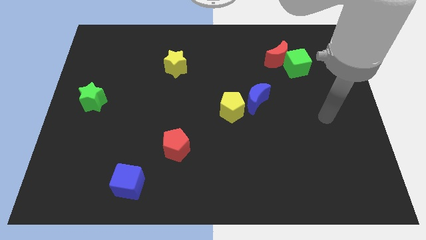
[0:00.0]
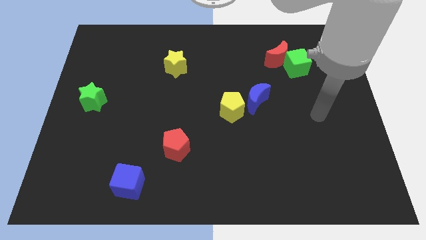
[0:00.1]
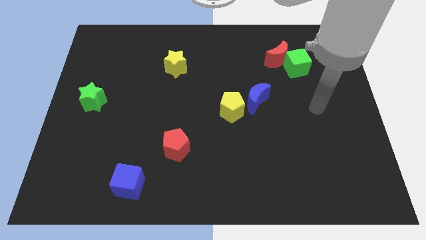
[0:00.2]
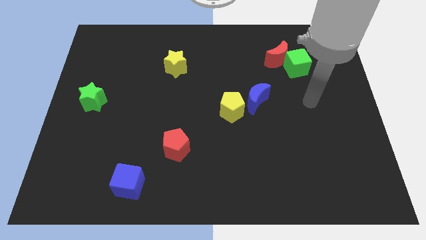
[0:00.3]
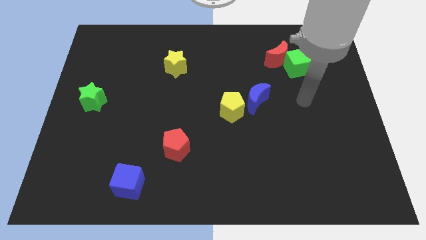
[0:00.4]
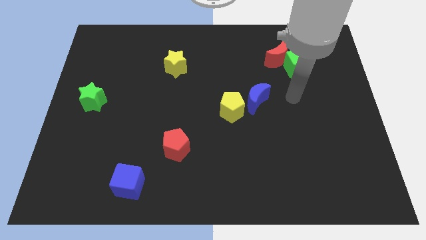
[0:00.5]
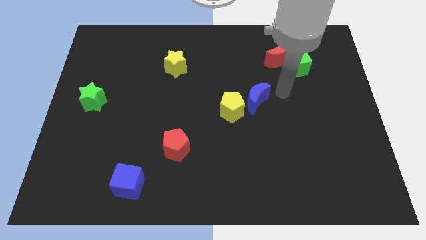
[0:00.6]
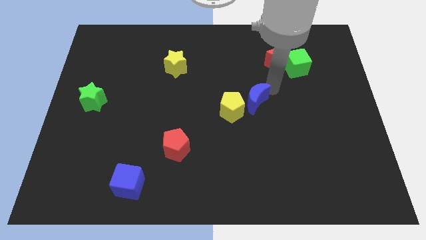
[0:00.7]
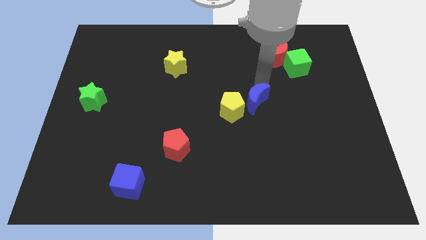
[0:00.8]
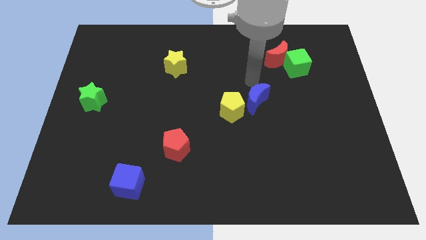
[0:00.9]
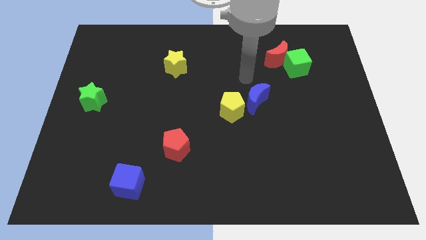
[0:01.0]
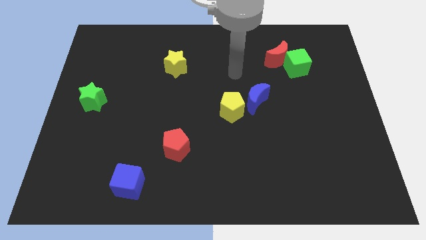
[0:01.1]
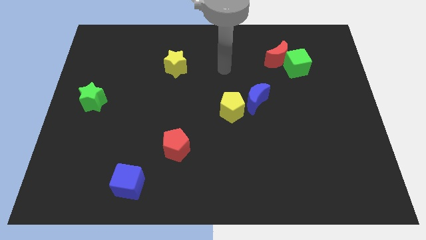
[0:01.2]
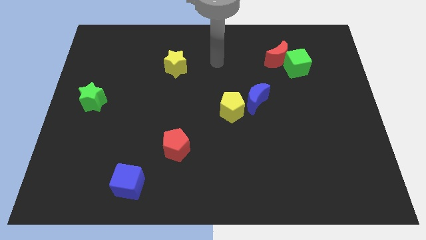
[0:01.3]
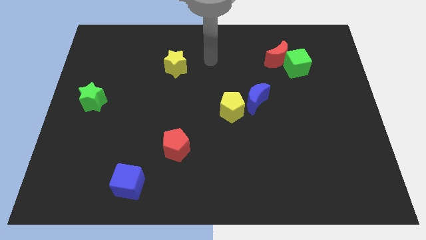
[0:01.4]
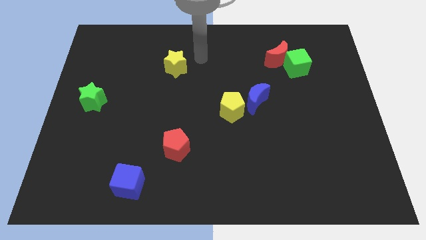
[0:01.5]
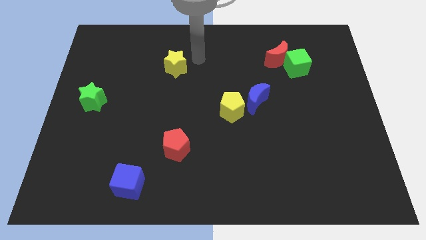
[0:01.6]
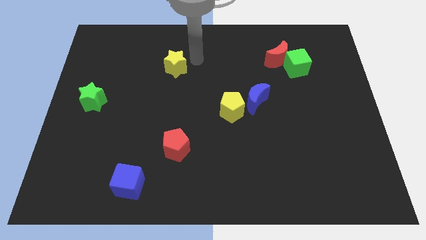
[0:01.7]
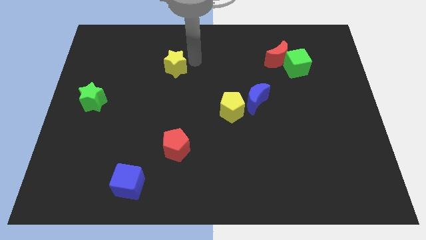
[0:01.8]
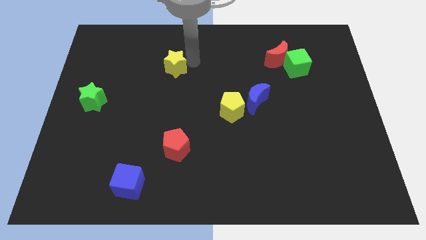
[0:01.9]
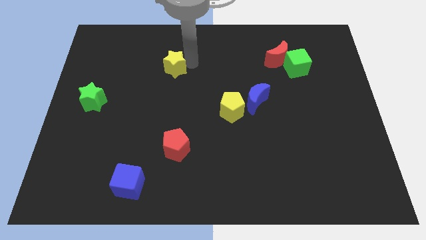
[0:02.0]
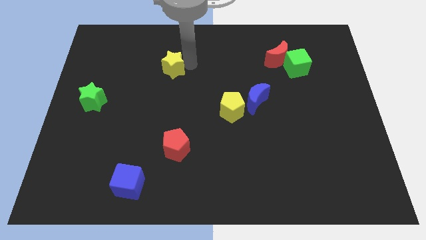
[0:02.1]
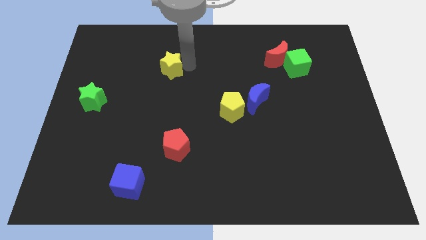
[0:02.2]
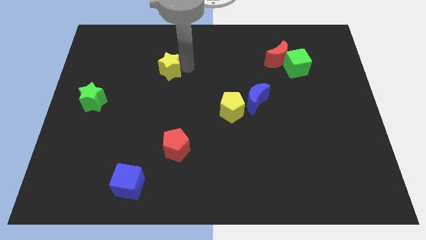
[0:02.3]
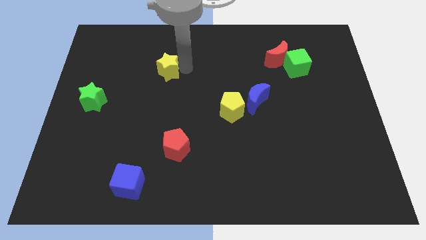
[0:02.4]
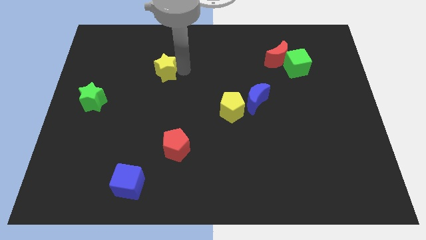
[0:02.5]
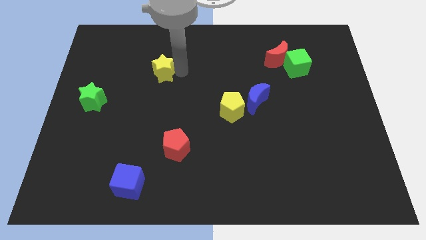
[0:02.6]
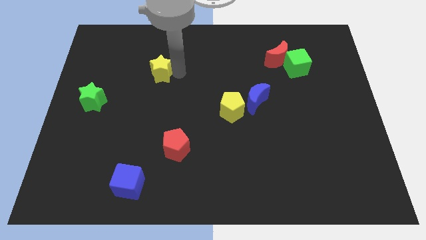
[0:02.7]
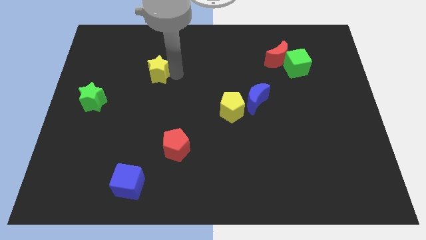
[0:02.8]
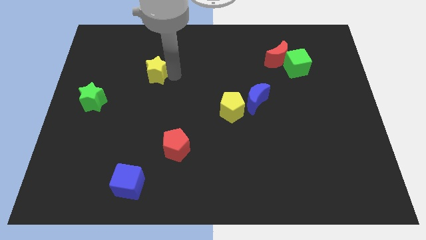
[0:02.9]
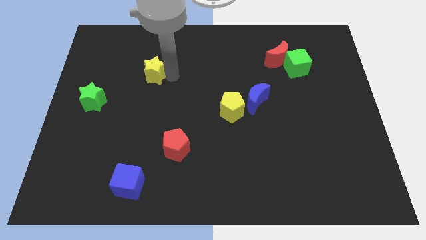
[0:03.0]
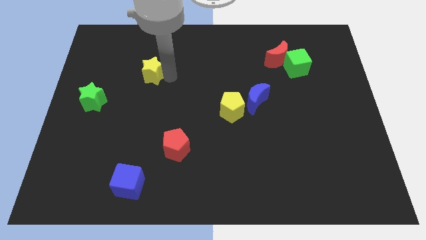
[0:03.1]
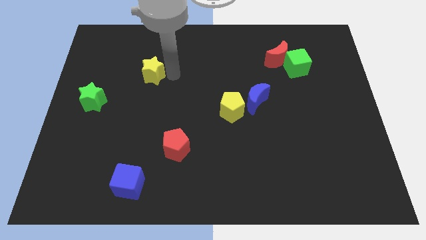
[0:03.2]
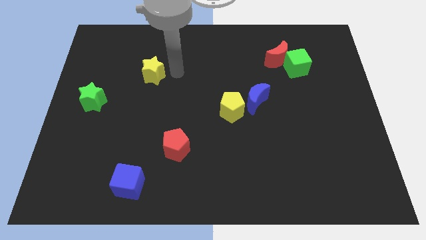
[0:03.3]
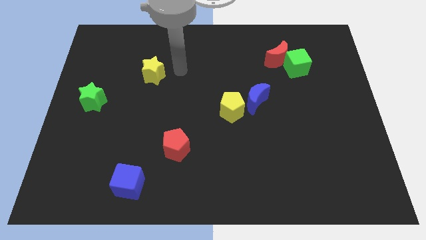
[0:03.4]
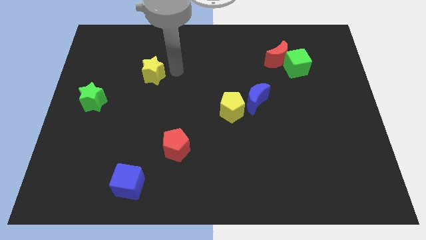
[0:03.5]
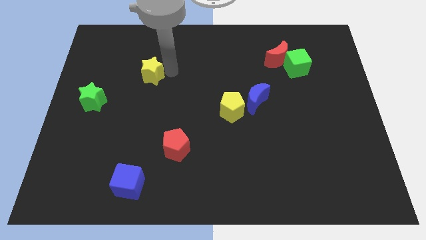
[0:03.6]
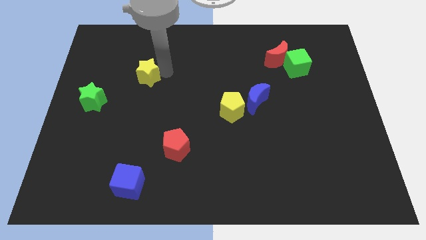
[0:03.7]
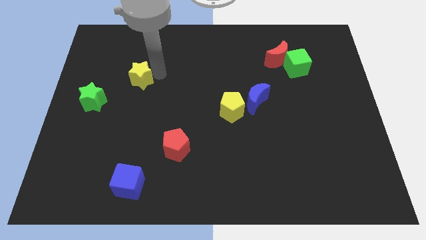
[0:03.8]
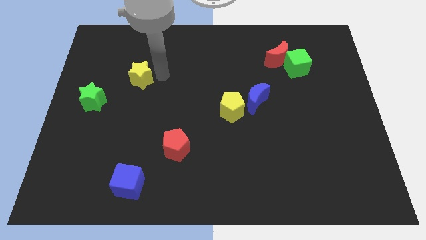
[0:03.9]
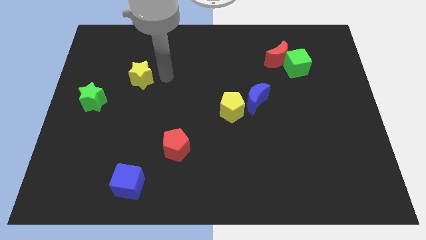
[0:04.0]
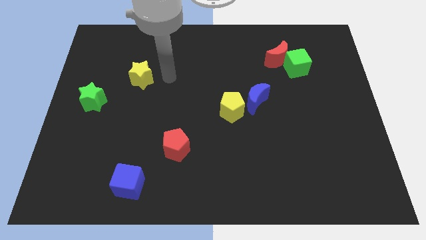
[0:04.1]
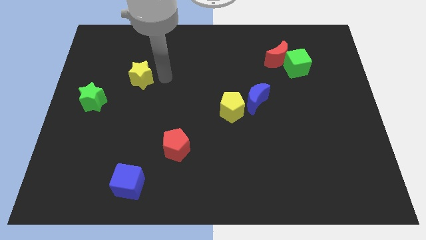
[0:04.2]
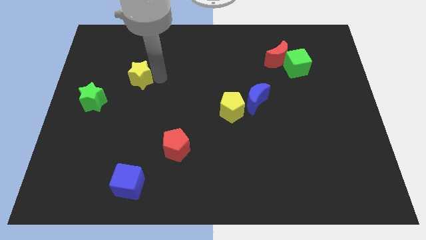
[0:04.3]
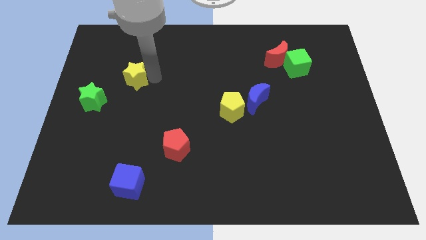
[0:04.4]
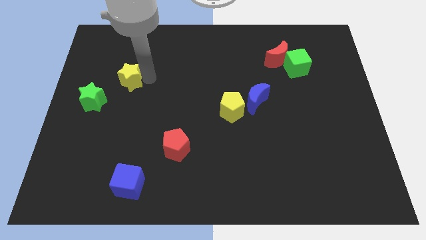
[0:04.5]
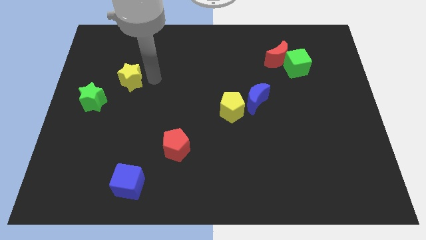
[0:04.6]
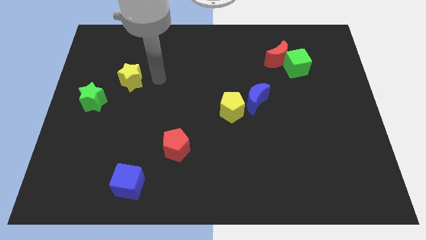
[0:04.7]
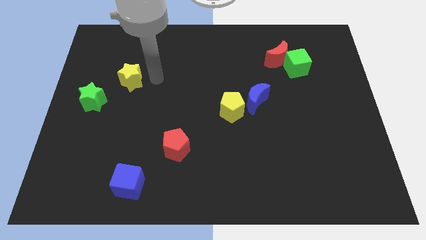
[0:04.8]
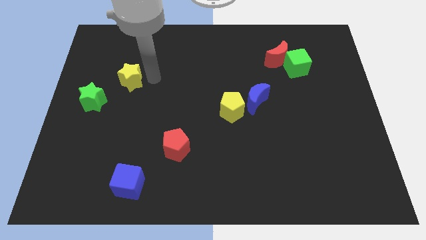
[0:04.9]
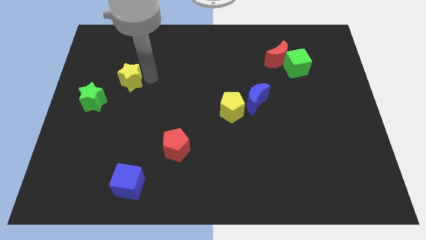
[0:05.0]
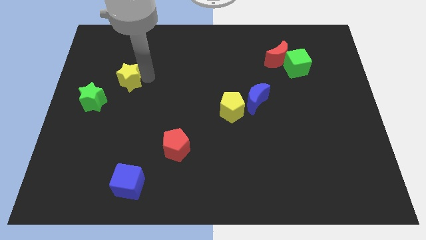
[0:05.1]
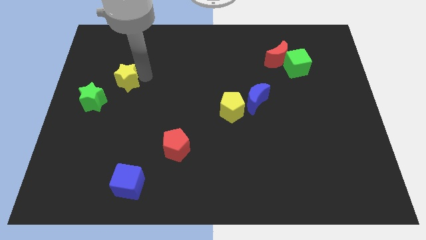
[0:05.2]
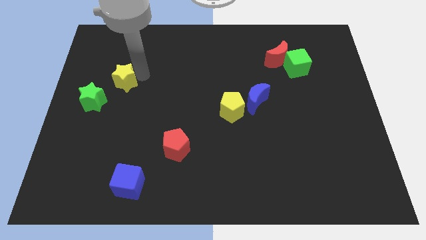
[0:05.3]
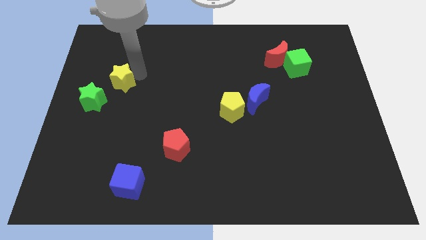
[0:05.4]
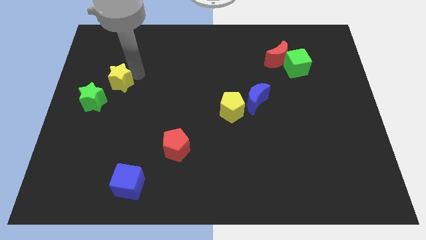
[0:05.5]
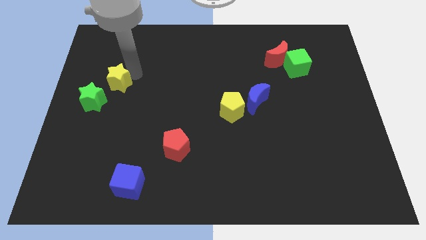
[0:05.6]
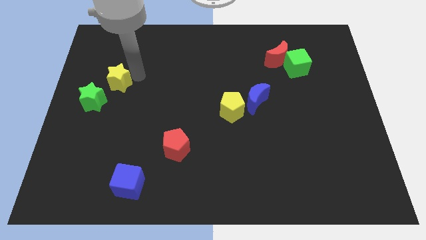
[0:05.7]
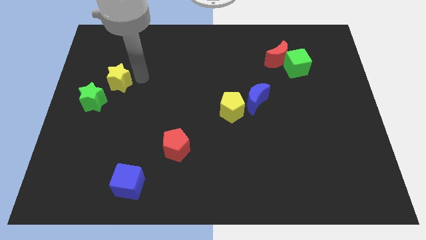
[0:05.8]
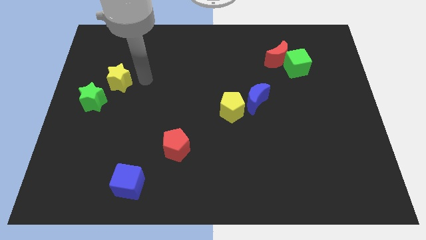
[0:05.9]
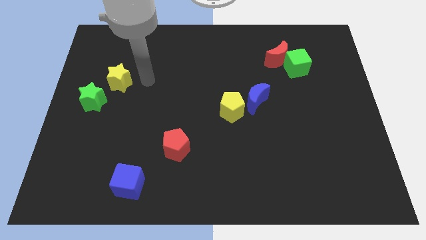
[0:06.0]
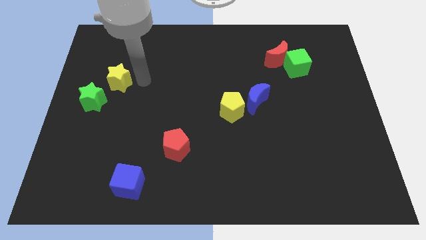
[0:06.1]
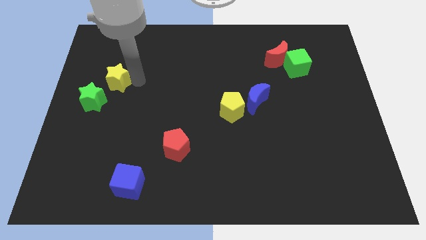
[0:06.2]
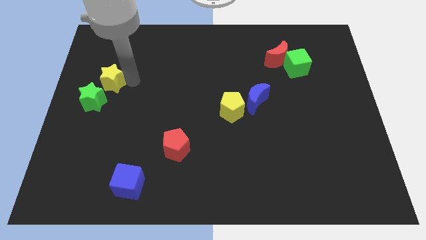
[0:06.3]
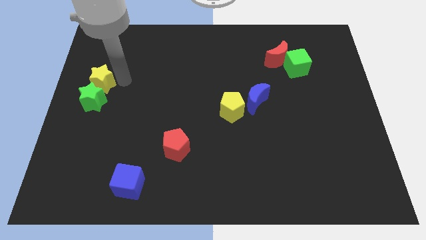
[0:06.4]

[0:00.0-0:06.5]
move the yellow star to the left side of the board

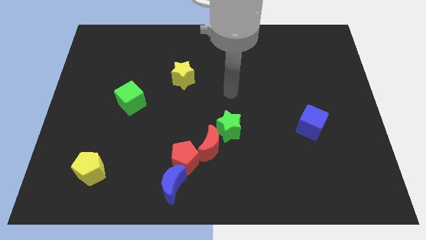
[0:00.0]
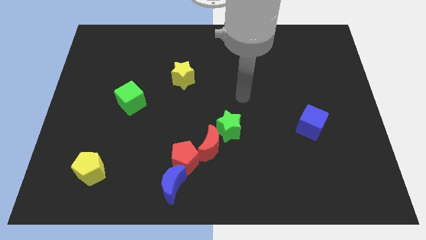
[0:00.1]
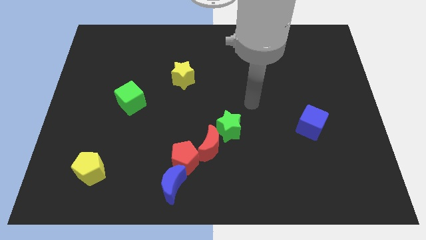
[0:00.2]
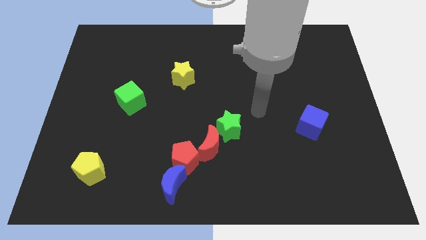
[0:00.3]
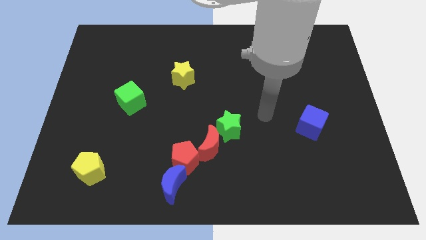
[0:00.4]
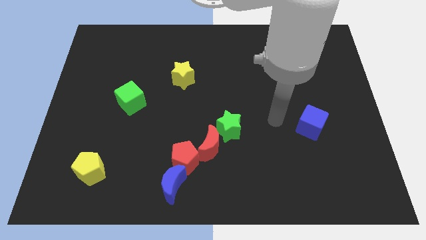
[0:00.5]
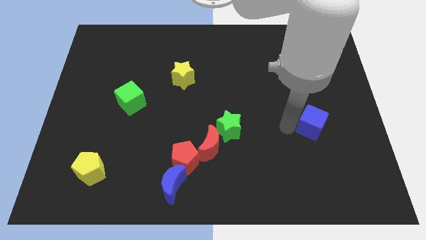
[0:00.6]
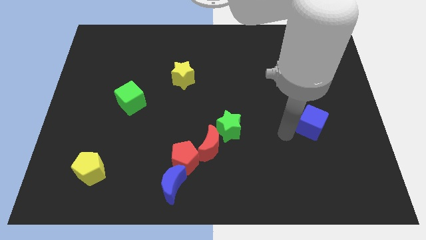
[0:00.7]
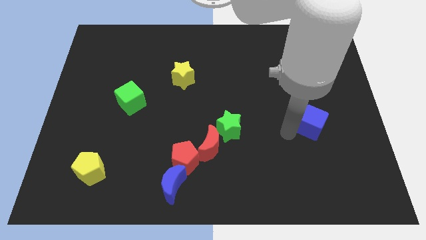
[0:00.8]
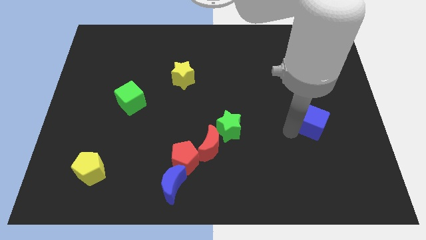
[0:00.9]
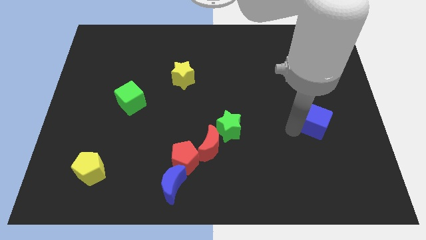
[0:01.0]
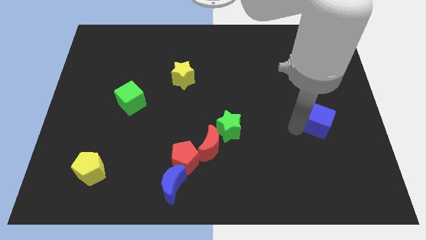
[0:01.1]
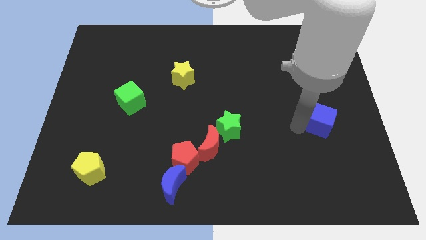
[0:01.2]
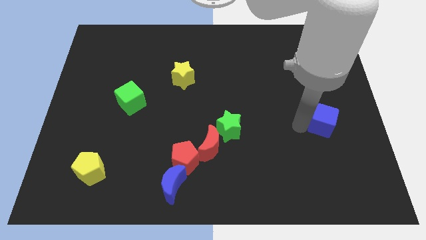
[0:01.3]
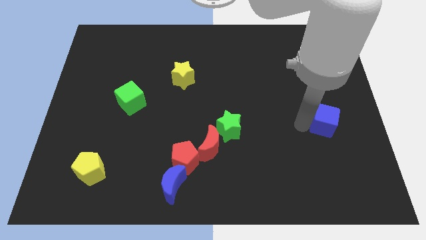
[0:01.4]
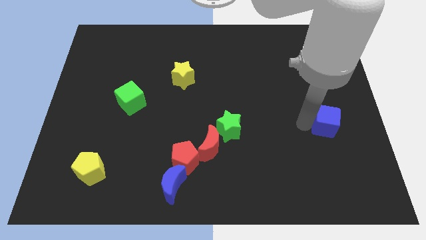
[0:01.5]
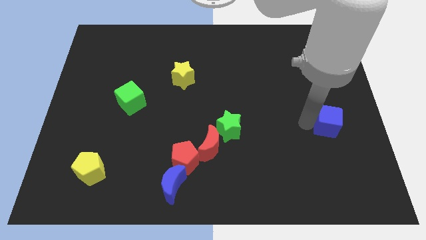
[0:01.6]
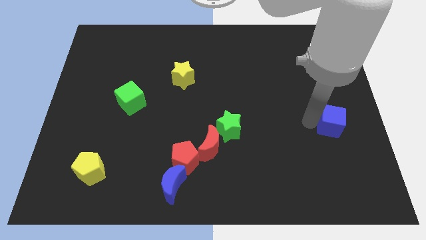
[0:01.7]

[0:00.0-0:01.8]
push the blue cube to the center right
